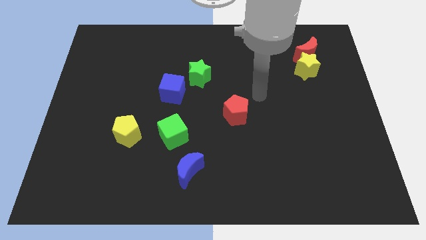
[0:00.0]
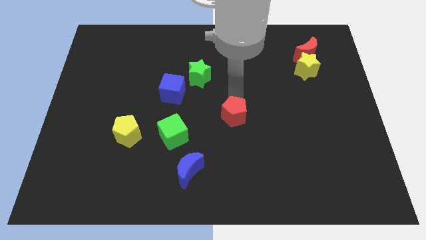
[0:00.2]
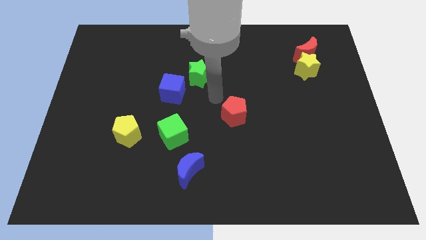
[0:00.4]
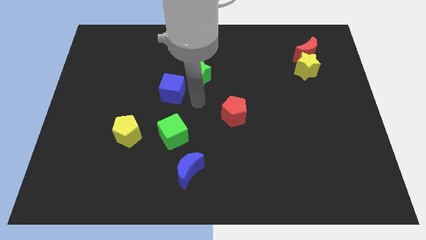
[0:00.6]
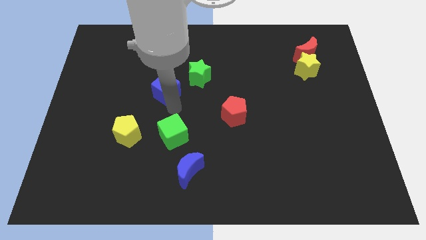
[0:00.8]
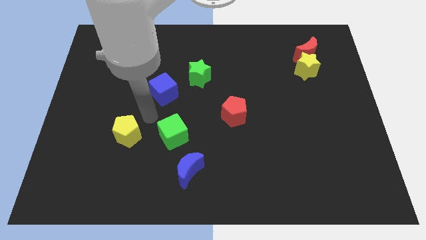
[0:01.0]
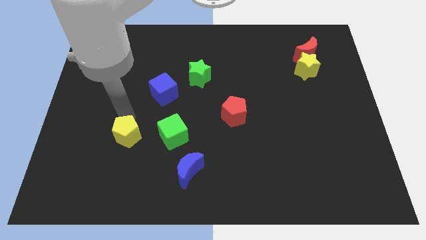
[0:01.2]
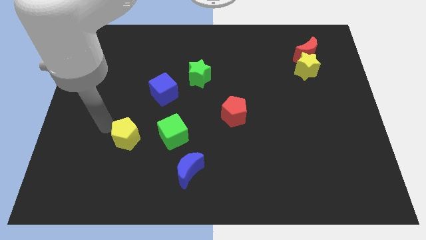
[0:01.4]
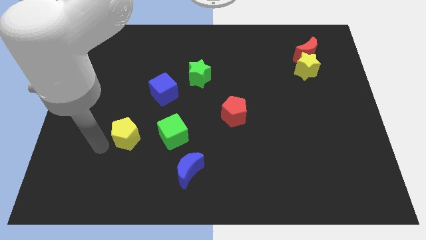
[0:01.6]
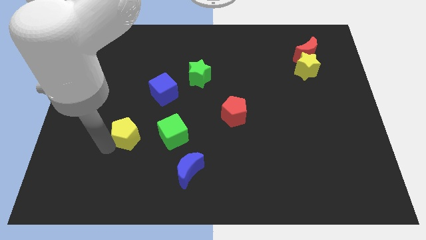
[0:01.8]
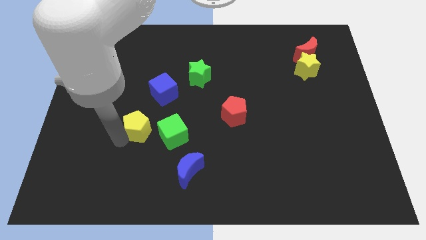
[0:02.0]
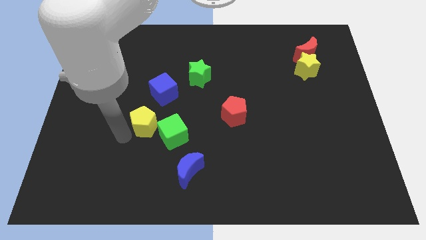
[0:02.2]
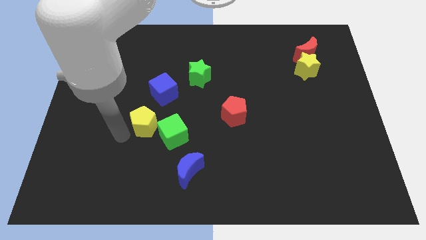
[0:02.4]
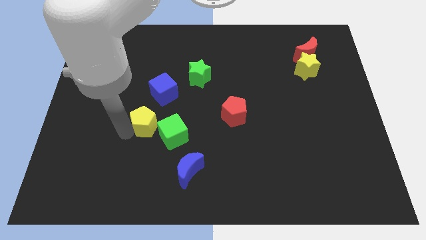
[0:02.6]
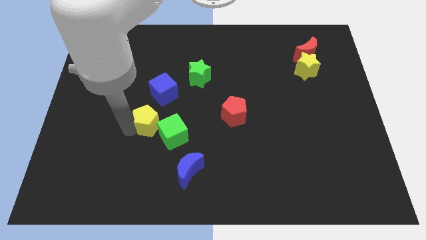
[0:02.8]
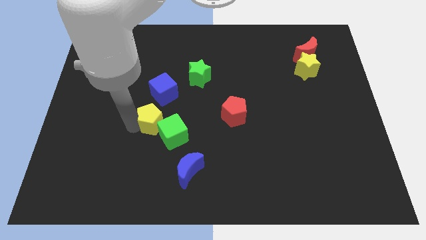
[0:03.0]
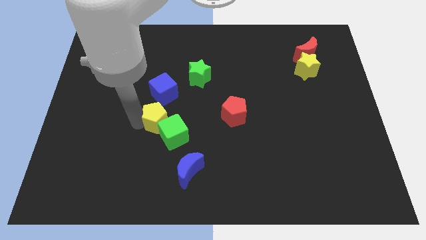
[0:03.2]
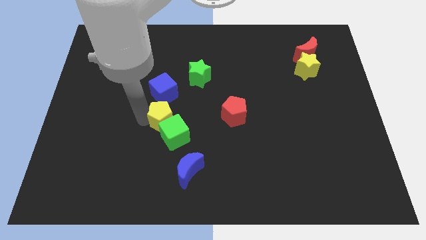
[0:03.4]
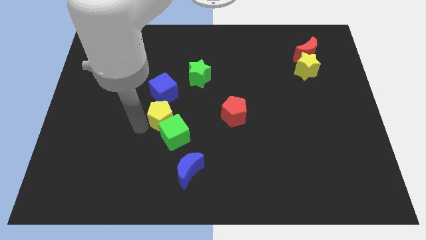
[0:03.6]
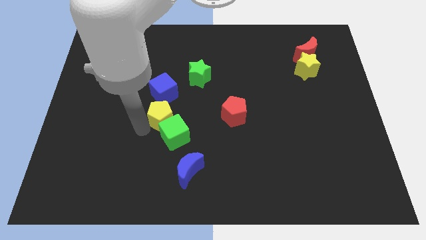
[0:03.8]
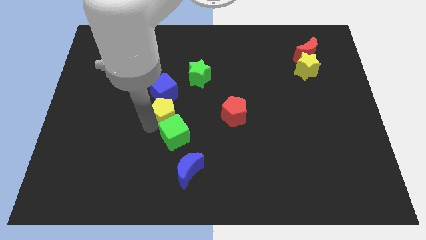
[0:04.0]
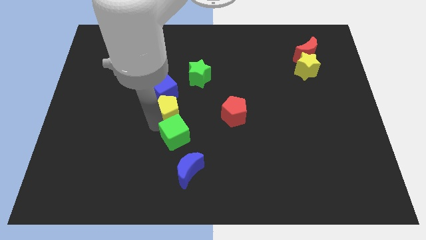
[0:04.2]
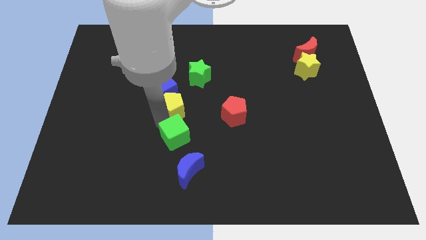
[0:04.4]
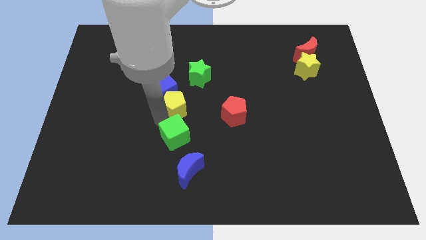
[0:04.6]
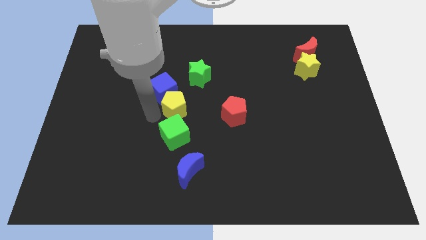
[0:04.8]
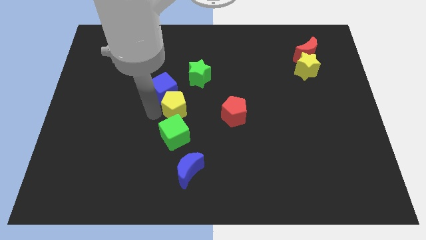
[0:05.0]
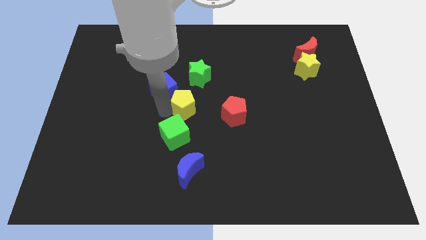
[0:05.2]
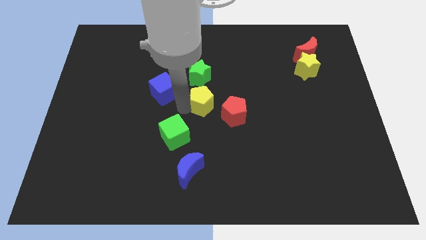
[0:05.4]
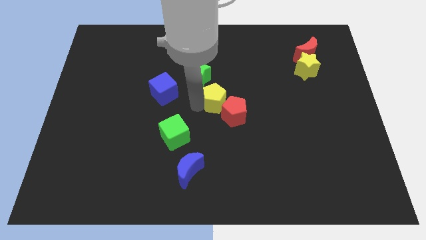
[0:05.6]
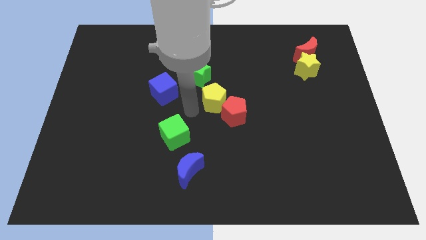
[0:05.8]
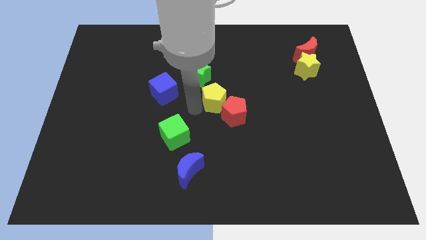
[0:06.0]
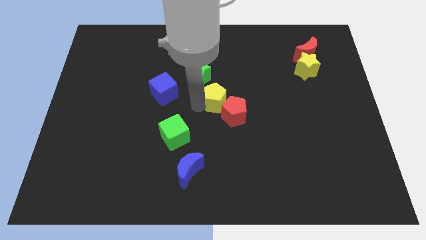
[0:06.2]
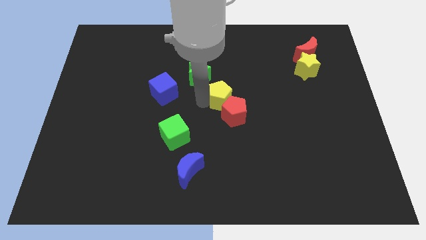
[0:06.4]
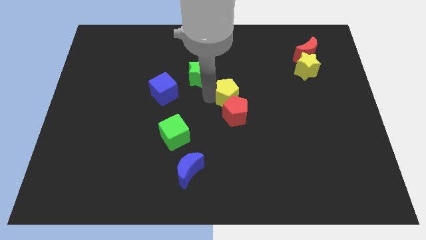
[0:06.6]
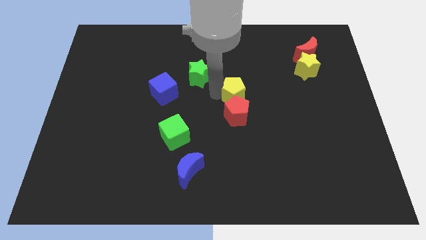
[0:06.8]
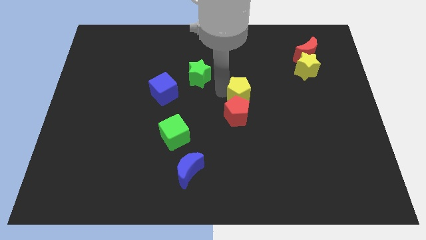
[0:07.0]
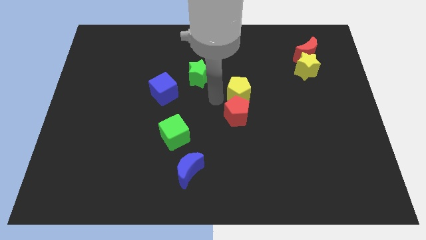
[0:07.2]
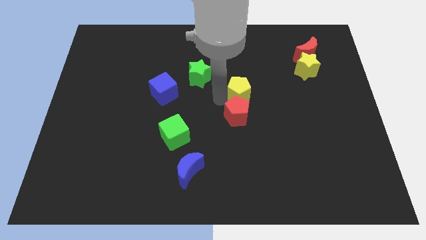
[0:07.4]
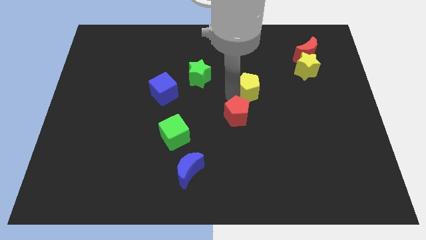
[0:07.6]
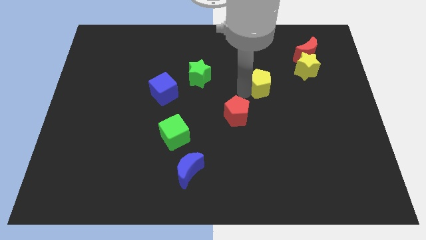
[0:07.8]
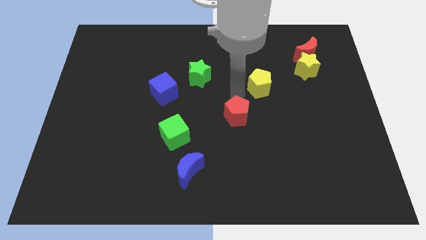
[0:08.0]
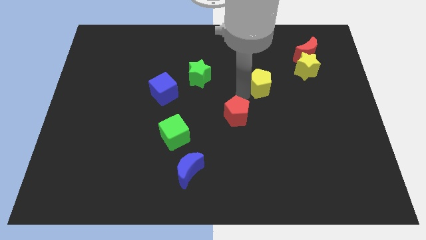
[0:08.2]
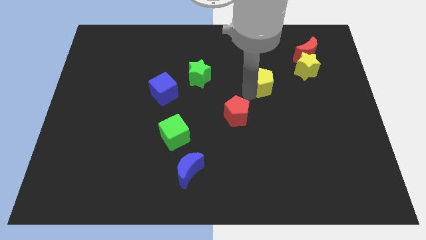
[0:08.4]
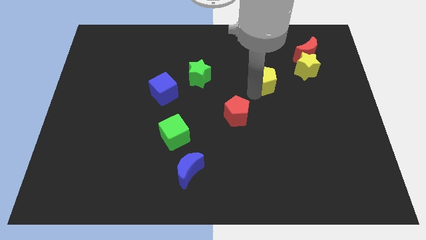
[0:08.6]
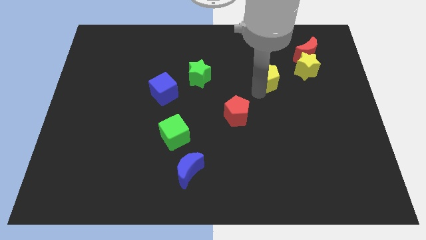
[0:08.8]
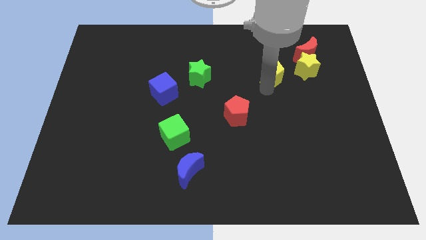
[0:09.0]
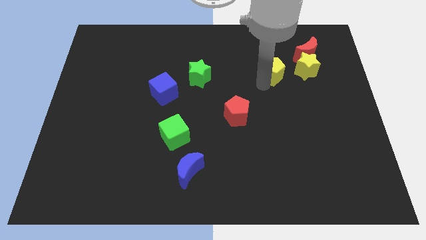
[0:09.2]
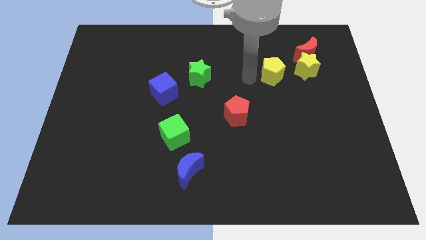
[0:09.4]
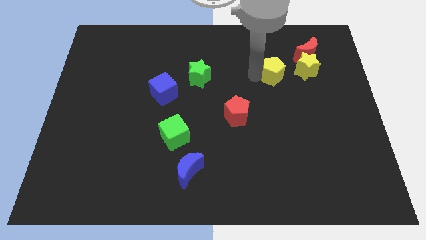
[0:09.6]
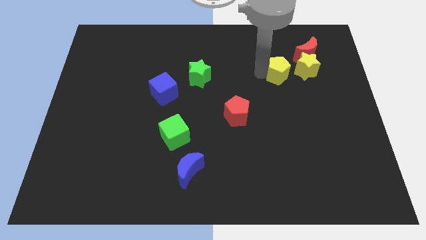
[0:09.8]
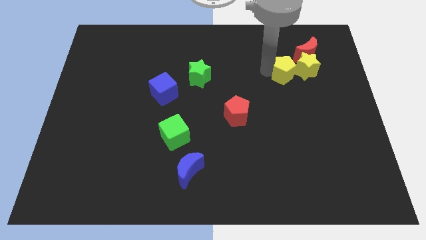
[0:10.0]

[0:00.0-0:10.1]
put the yellow pentagon towards the yellow star

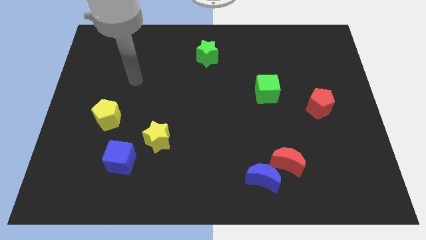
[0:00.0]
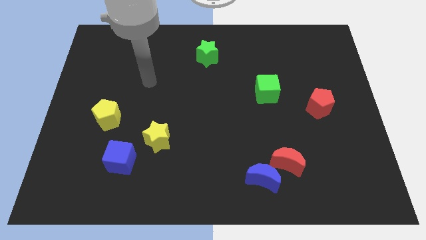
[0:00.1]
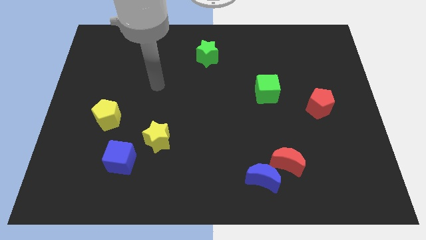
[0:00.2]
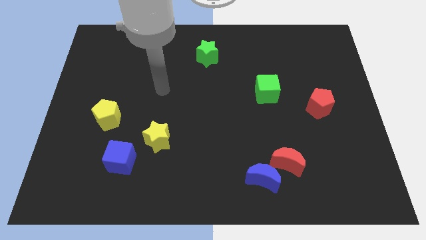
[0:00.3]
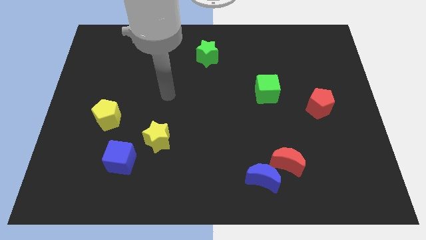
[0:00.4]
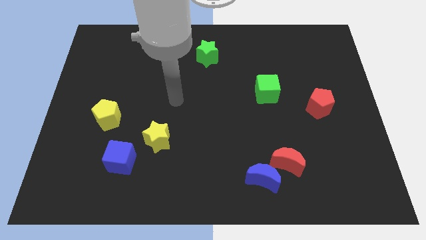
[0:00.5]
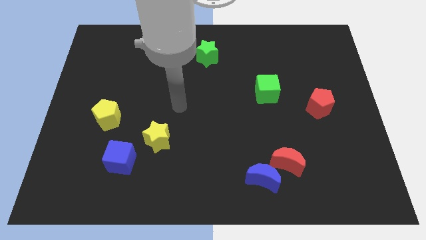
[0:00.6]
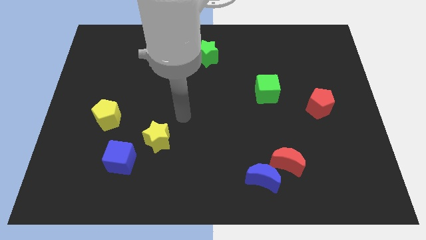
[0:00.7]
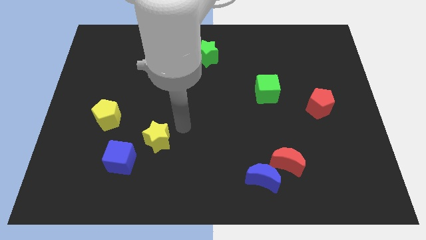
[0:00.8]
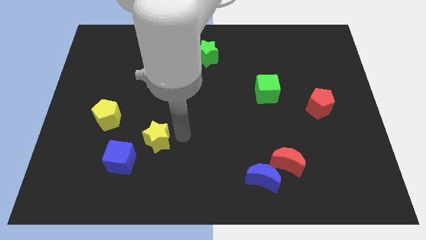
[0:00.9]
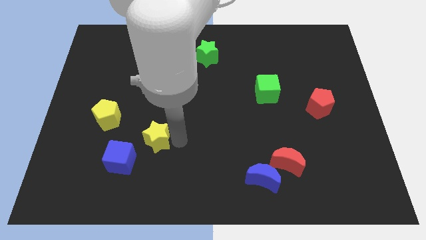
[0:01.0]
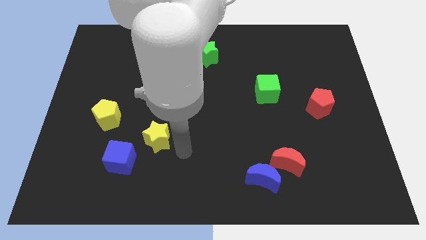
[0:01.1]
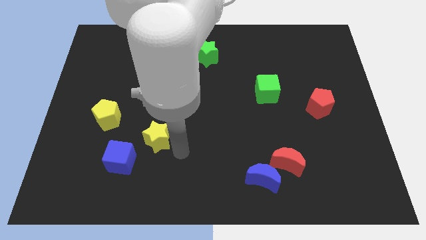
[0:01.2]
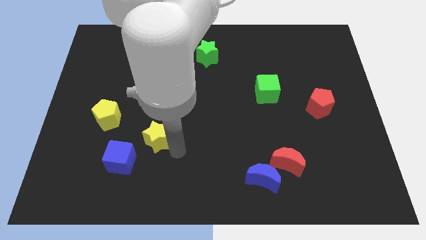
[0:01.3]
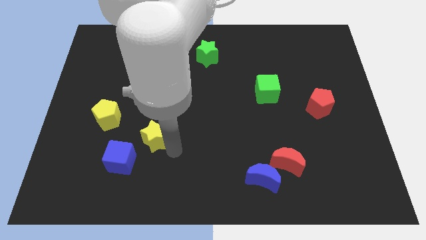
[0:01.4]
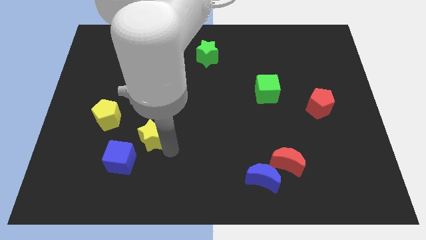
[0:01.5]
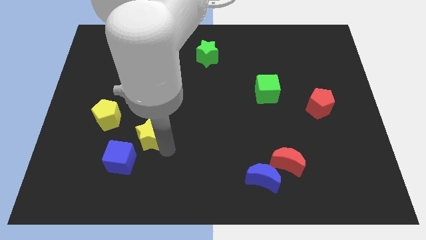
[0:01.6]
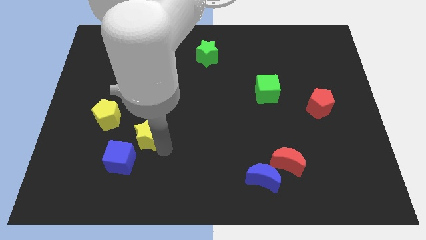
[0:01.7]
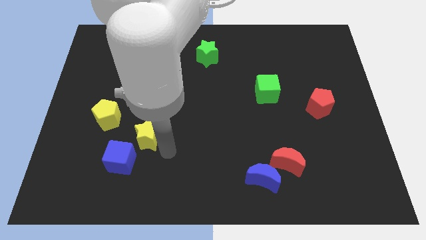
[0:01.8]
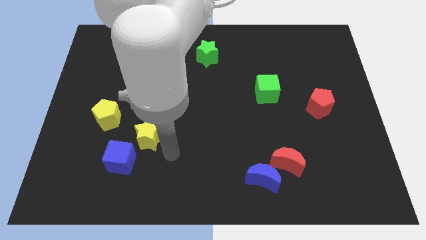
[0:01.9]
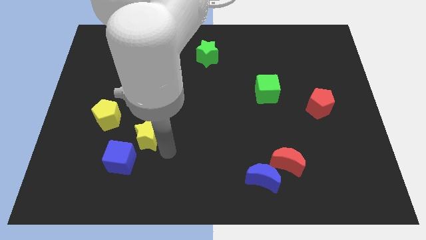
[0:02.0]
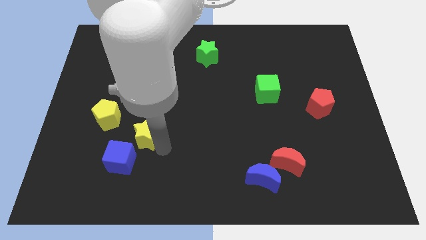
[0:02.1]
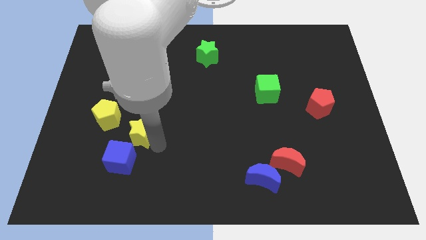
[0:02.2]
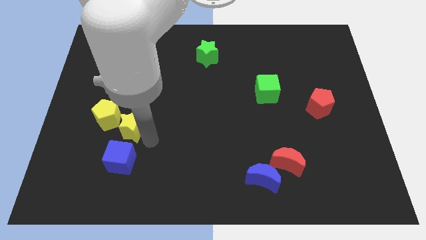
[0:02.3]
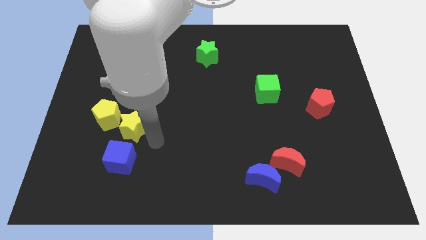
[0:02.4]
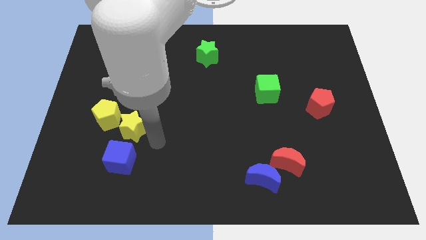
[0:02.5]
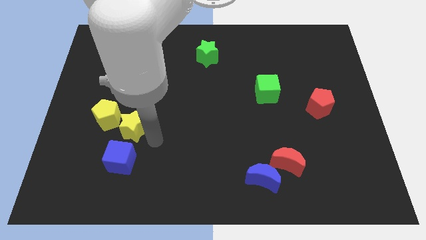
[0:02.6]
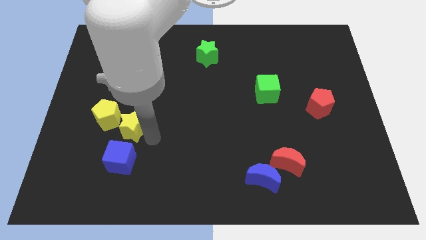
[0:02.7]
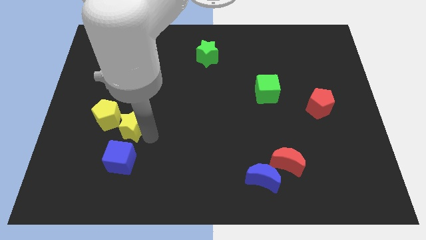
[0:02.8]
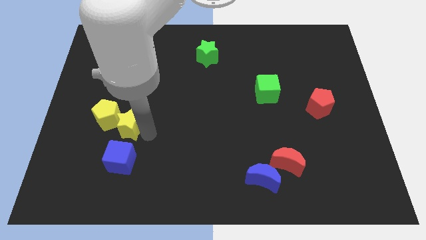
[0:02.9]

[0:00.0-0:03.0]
move the yellow star towards the yellow pentagon
